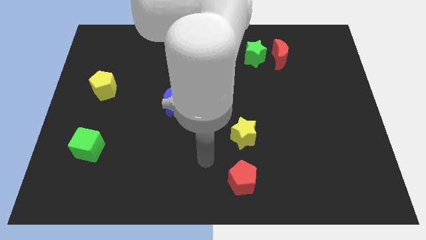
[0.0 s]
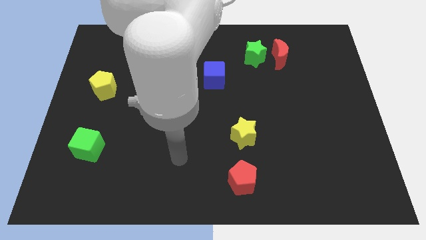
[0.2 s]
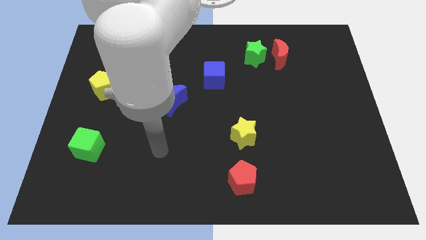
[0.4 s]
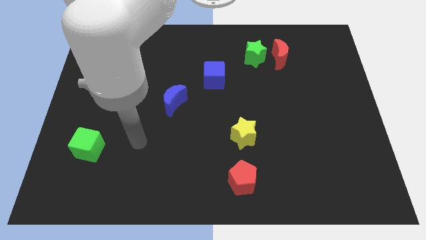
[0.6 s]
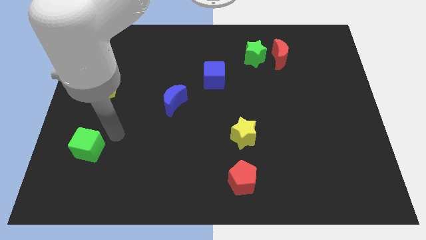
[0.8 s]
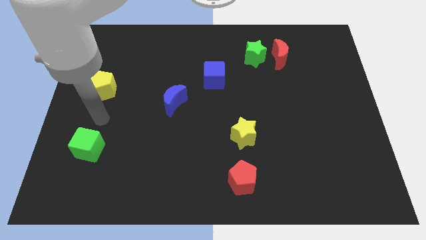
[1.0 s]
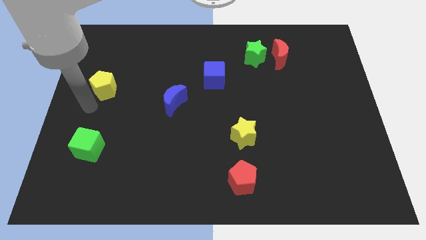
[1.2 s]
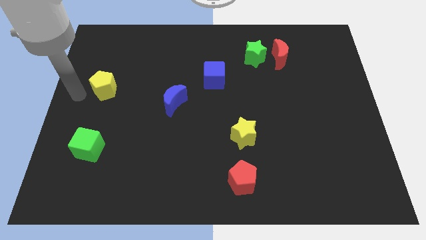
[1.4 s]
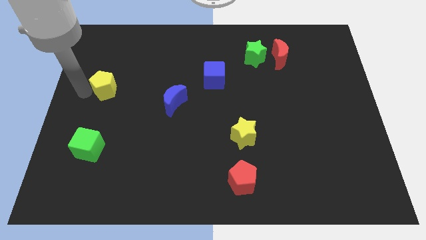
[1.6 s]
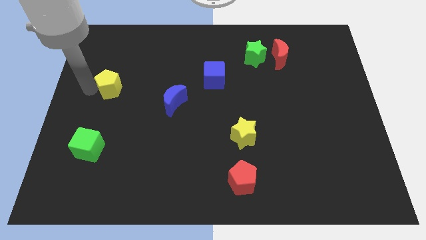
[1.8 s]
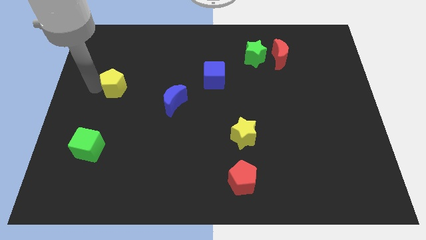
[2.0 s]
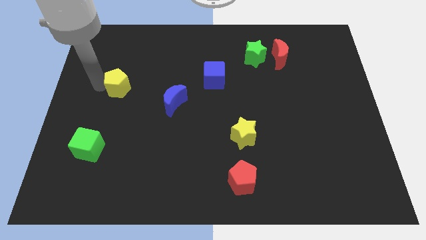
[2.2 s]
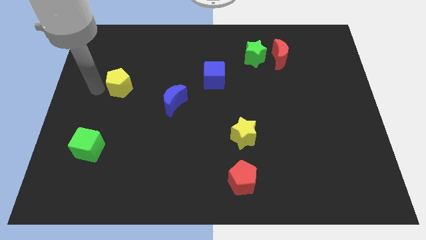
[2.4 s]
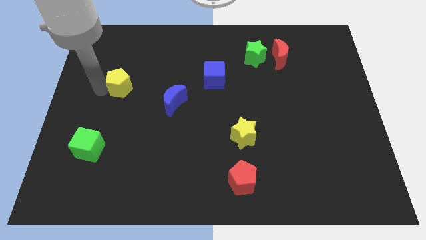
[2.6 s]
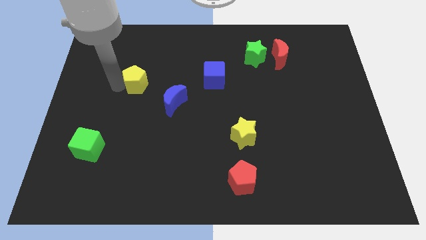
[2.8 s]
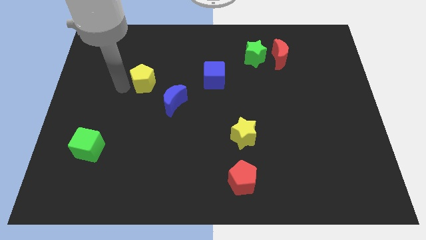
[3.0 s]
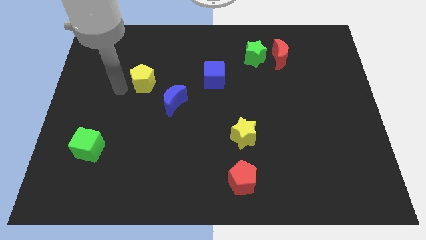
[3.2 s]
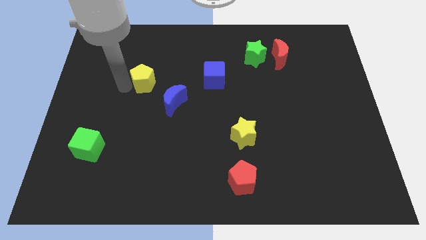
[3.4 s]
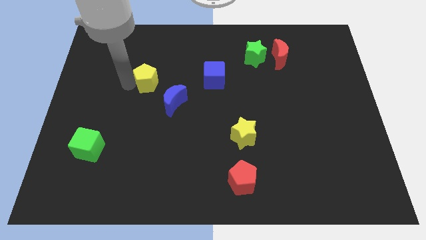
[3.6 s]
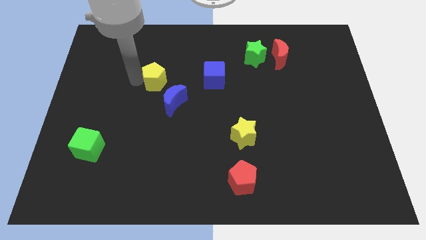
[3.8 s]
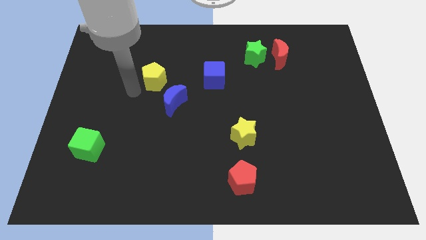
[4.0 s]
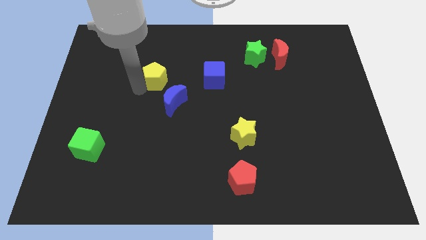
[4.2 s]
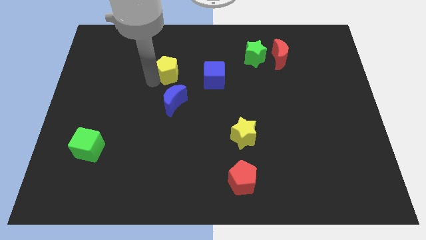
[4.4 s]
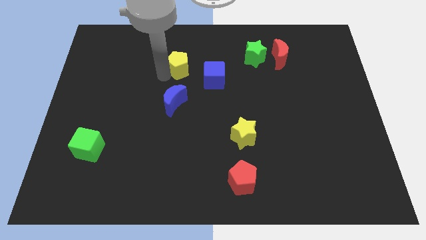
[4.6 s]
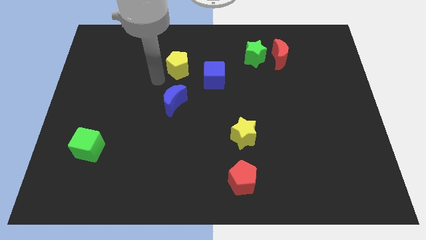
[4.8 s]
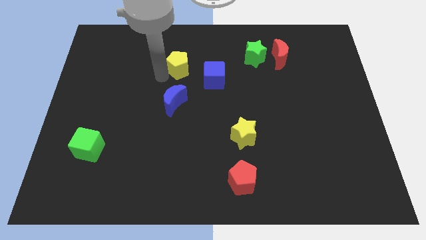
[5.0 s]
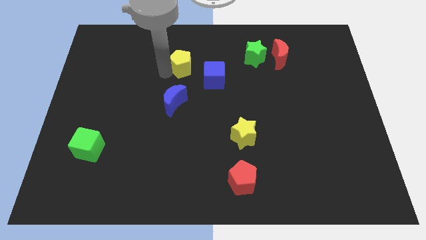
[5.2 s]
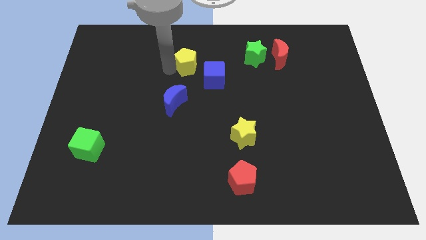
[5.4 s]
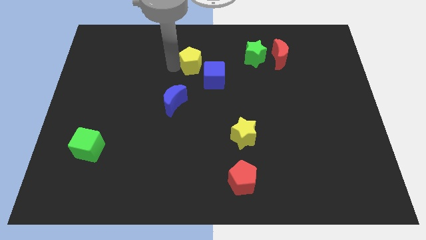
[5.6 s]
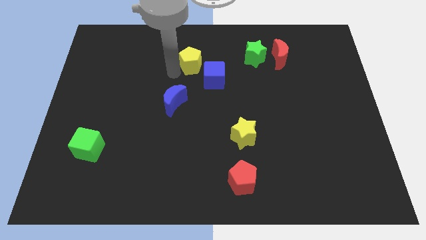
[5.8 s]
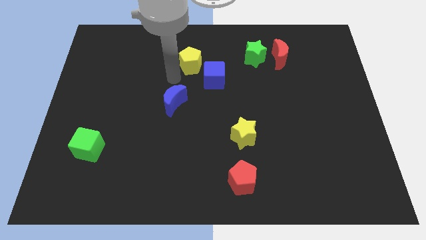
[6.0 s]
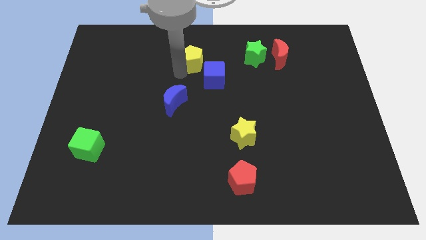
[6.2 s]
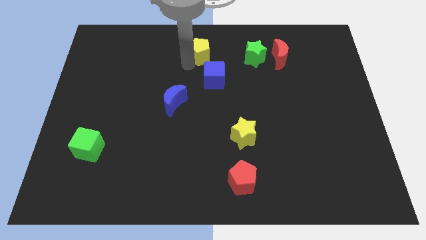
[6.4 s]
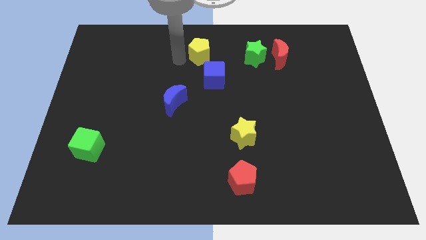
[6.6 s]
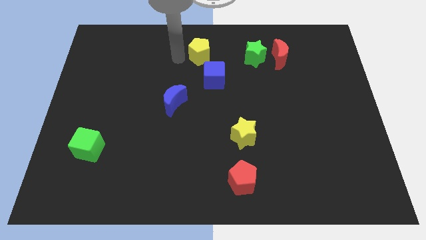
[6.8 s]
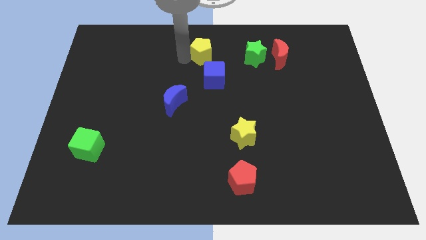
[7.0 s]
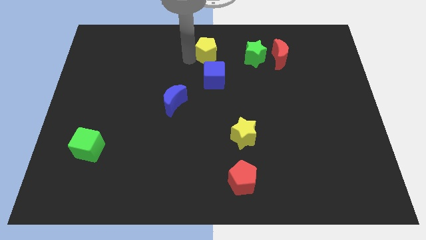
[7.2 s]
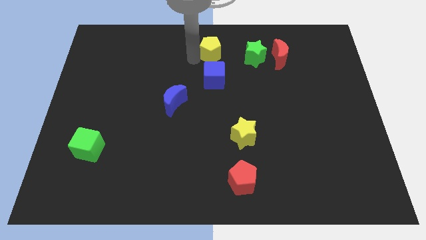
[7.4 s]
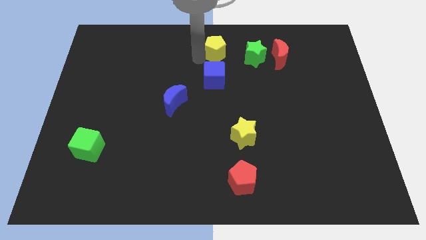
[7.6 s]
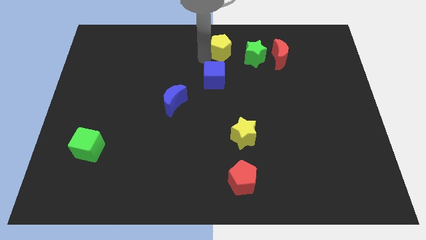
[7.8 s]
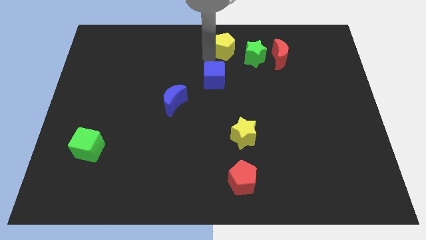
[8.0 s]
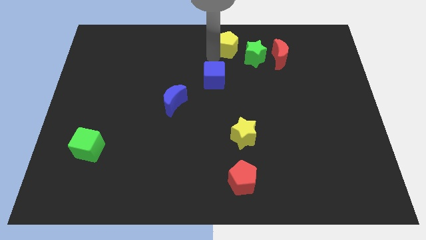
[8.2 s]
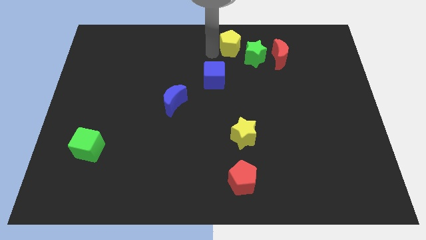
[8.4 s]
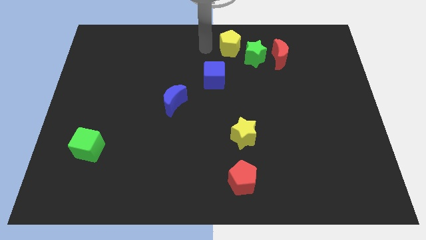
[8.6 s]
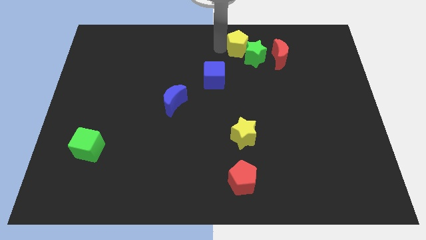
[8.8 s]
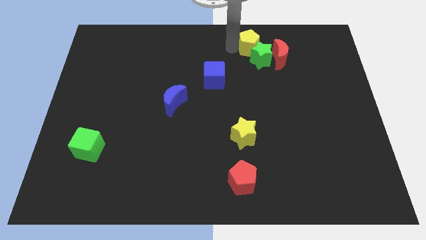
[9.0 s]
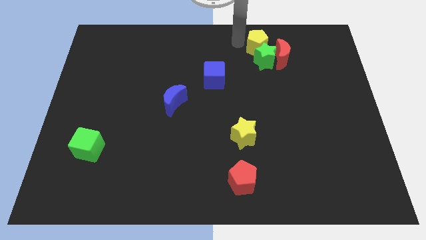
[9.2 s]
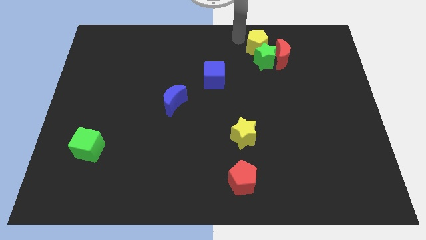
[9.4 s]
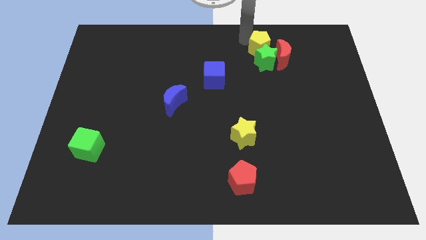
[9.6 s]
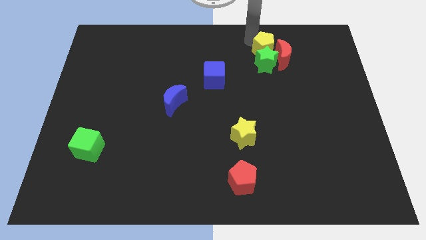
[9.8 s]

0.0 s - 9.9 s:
slide the yellow pentagon next to the red moon

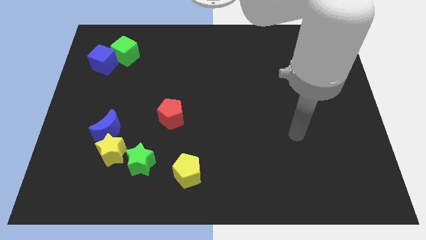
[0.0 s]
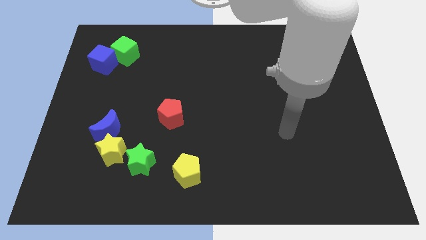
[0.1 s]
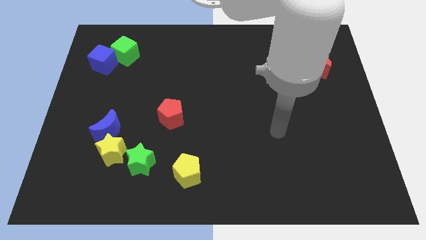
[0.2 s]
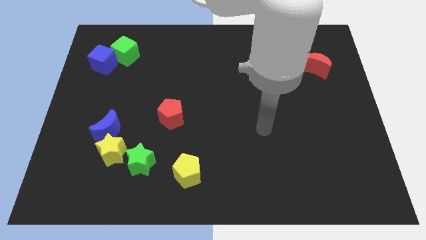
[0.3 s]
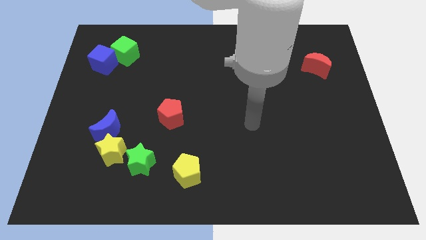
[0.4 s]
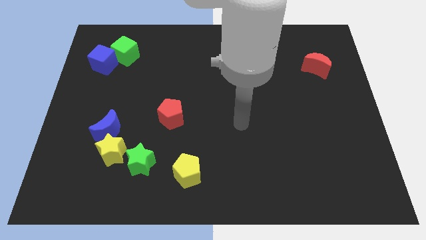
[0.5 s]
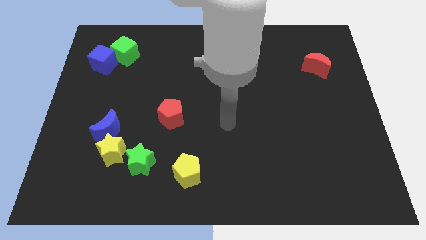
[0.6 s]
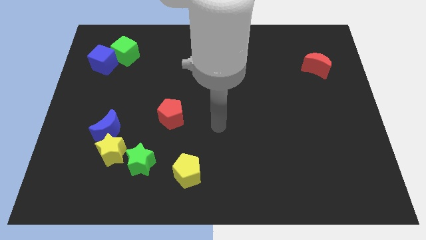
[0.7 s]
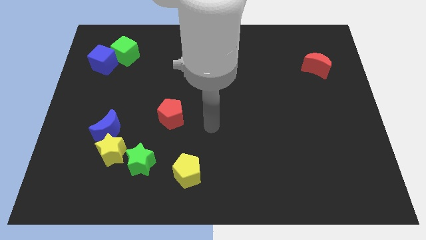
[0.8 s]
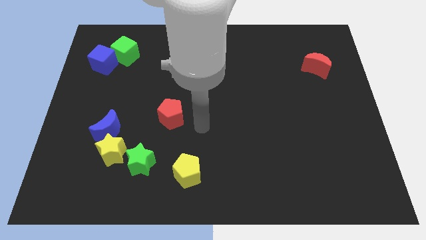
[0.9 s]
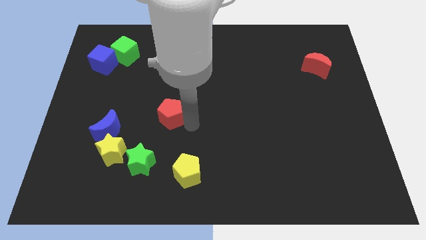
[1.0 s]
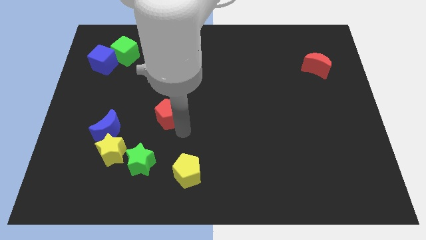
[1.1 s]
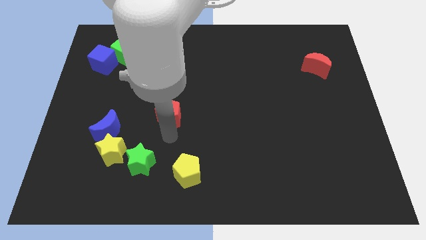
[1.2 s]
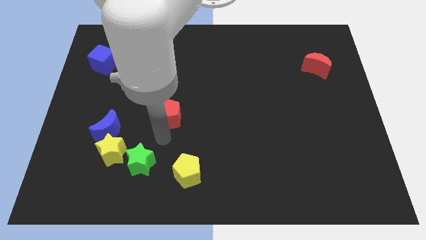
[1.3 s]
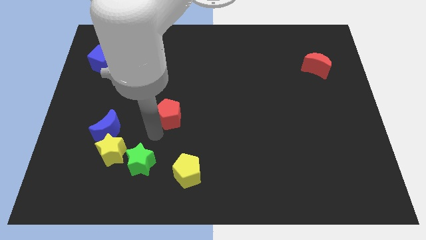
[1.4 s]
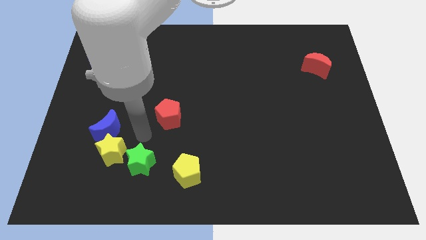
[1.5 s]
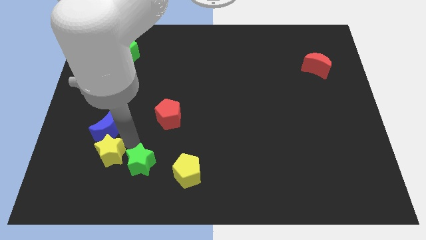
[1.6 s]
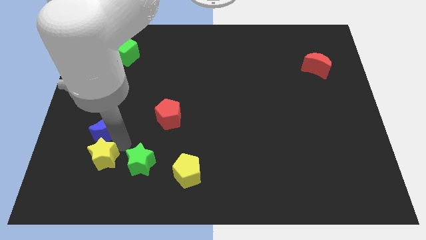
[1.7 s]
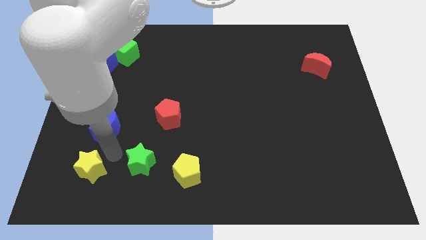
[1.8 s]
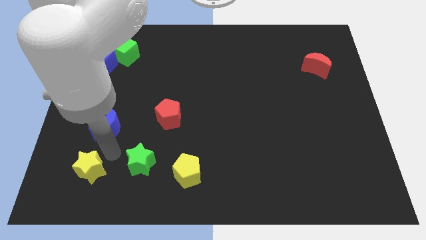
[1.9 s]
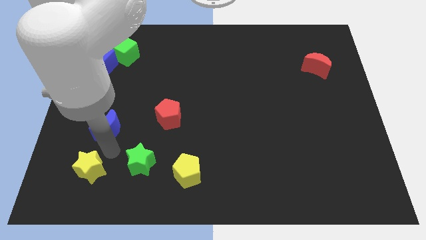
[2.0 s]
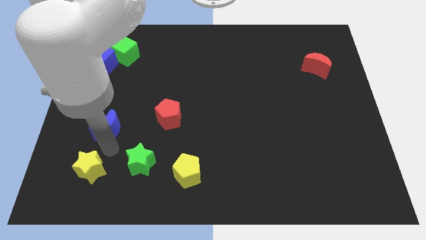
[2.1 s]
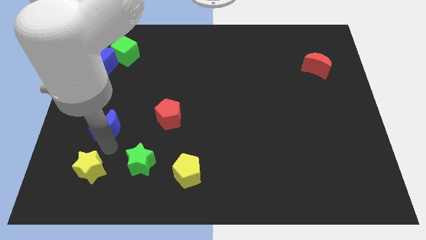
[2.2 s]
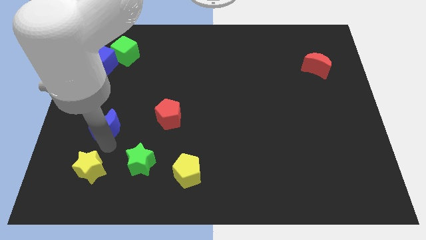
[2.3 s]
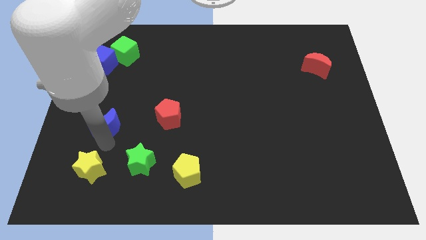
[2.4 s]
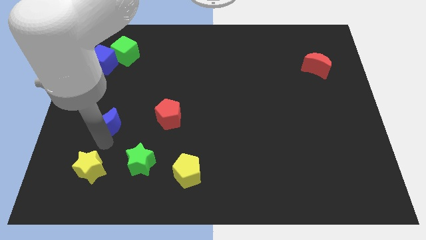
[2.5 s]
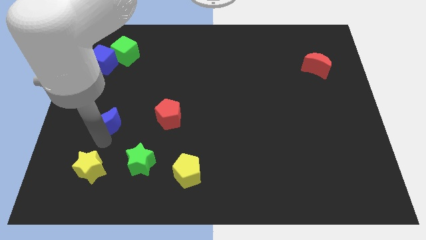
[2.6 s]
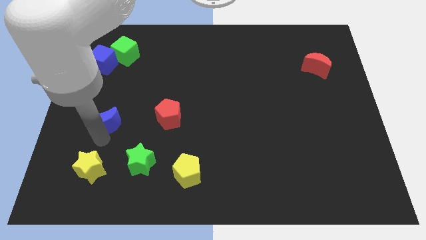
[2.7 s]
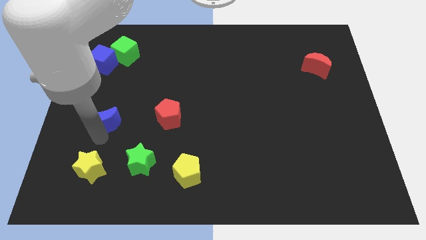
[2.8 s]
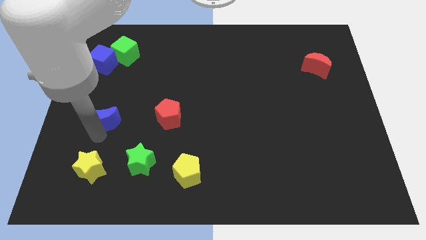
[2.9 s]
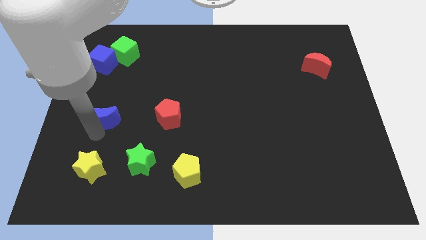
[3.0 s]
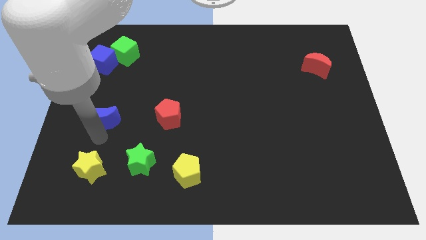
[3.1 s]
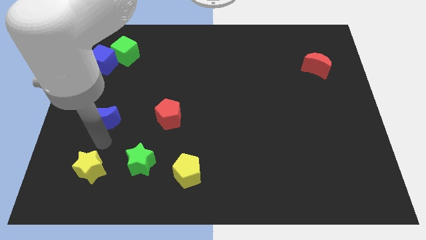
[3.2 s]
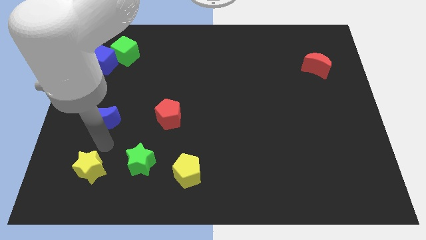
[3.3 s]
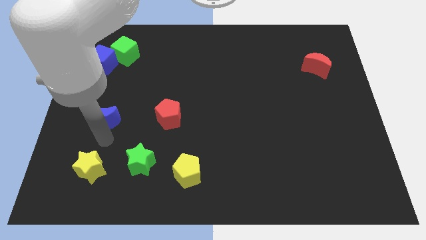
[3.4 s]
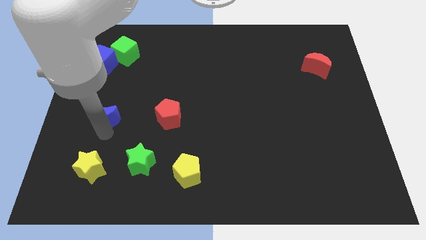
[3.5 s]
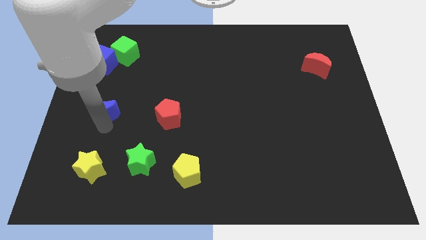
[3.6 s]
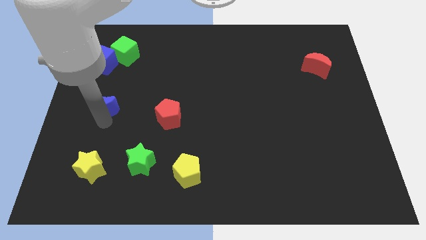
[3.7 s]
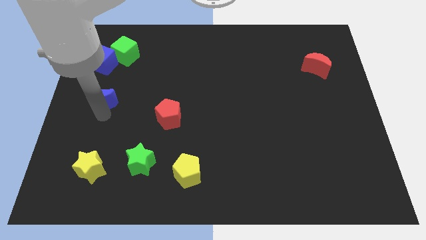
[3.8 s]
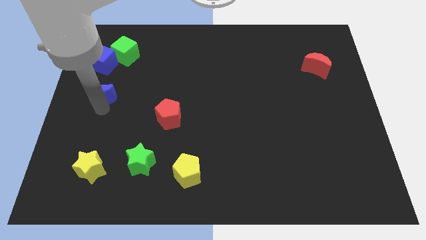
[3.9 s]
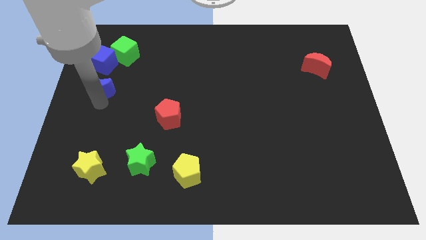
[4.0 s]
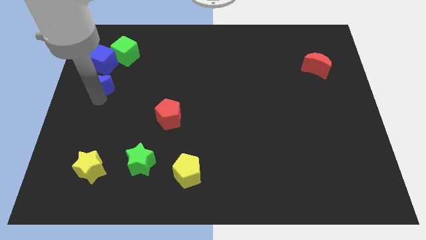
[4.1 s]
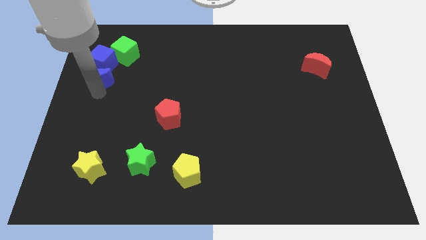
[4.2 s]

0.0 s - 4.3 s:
move the blue moon towards the blue cube
